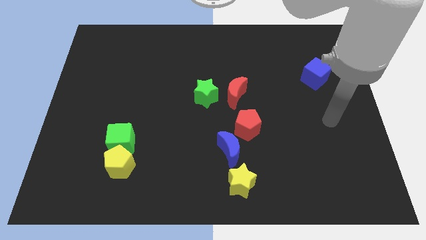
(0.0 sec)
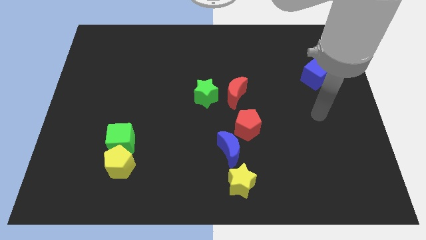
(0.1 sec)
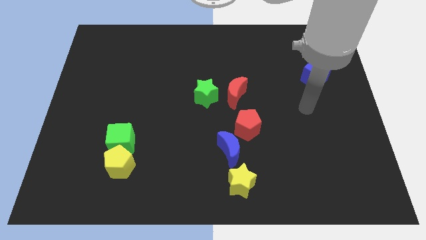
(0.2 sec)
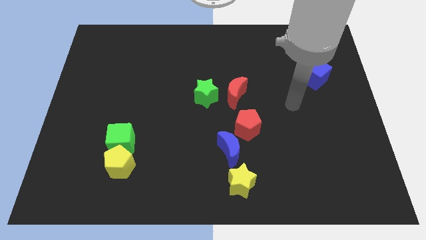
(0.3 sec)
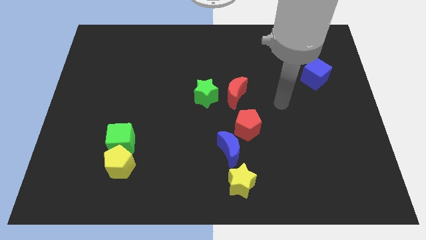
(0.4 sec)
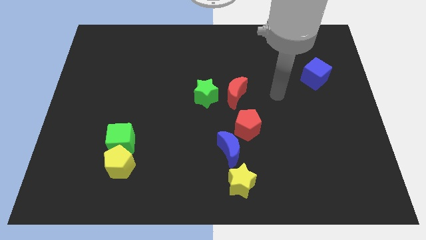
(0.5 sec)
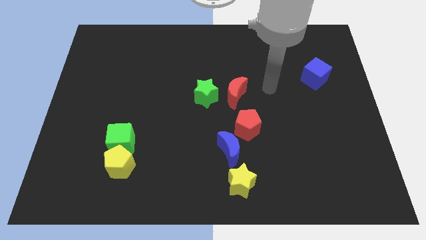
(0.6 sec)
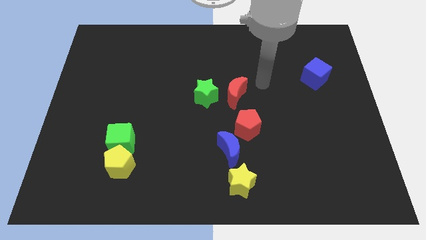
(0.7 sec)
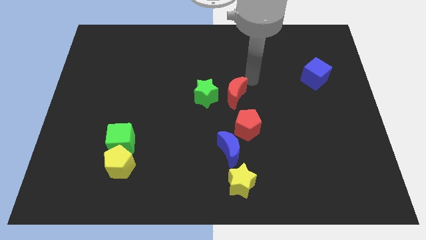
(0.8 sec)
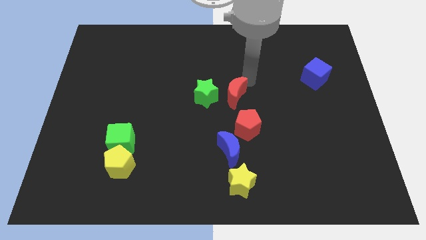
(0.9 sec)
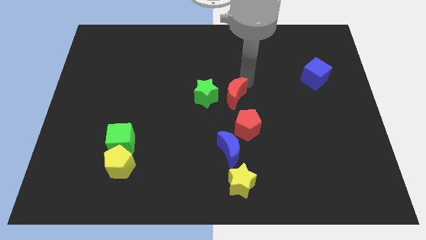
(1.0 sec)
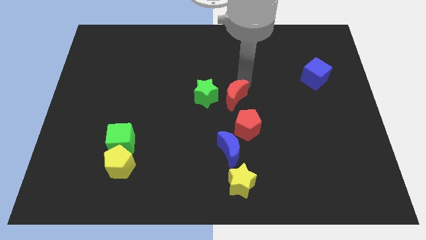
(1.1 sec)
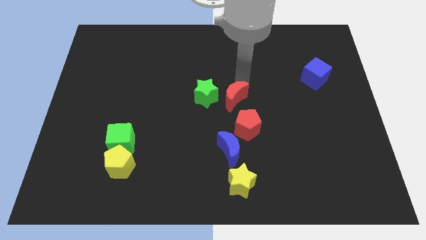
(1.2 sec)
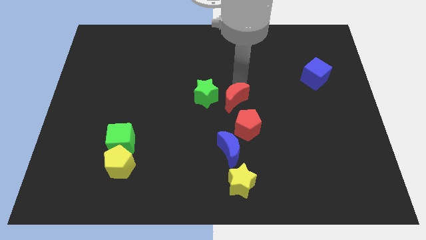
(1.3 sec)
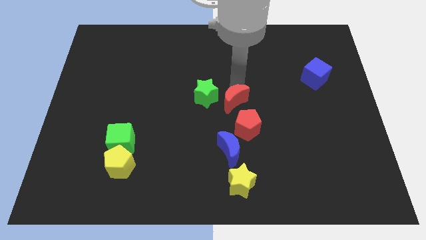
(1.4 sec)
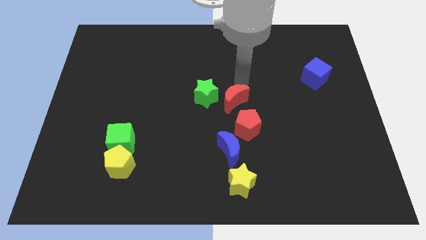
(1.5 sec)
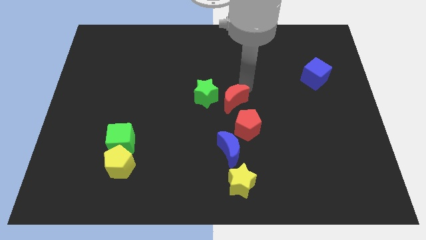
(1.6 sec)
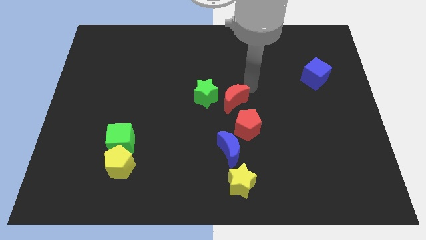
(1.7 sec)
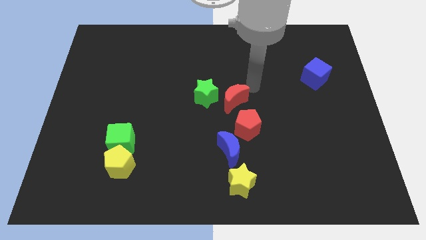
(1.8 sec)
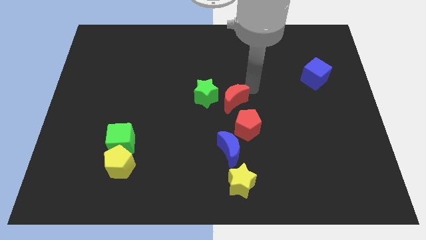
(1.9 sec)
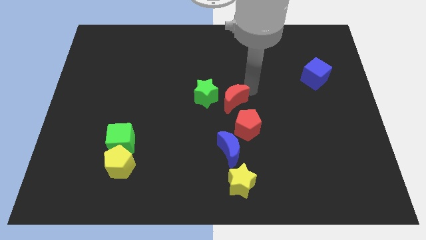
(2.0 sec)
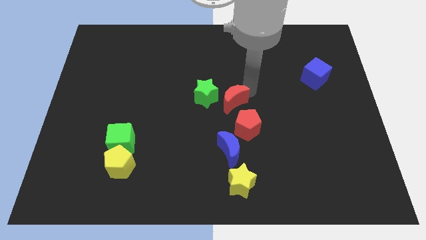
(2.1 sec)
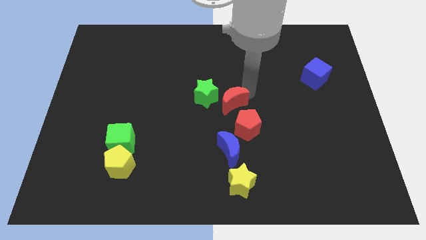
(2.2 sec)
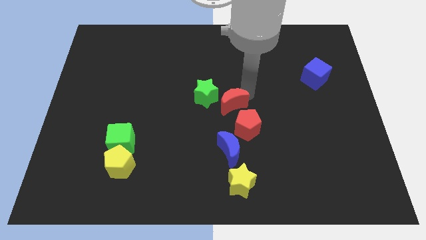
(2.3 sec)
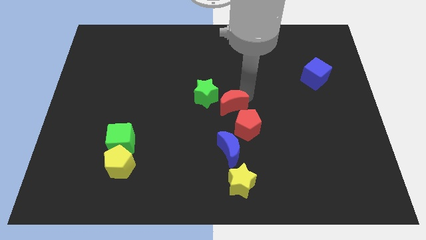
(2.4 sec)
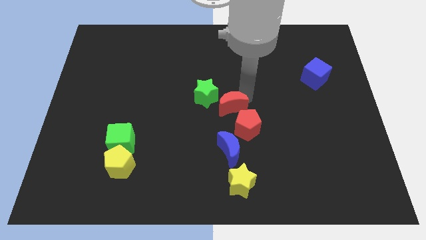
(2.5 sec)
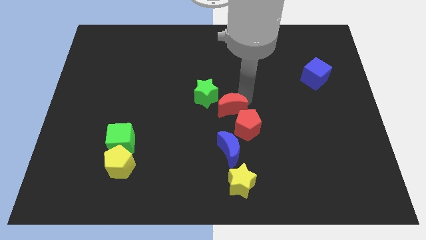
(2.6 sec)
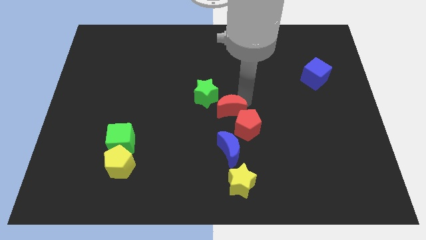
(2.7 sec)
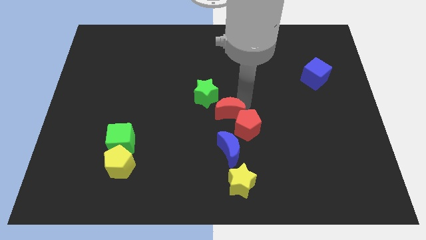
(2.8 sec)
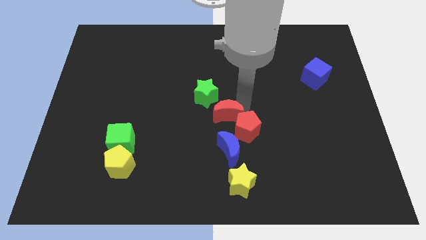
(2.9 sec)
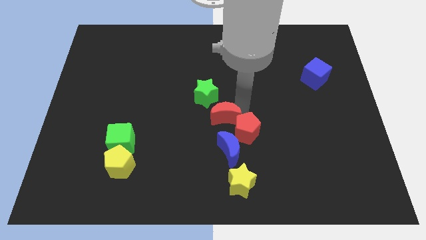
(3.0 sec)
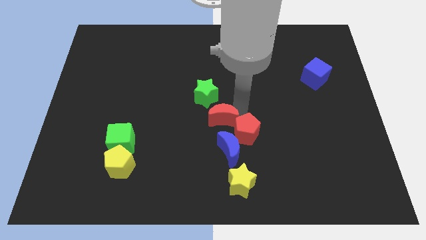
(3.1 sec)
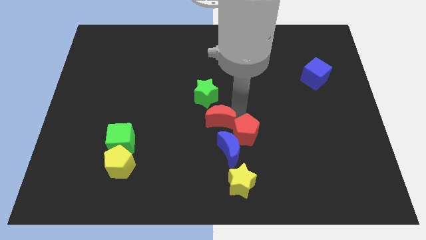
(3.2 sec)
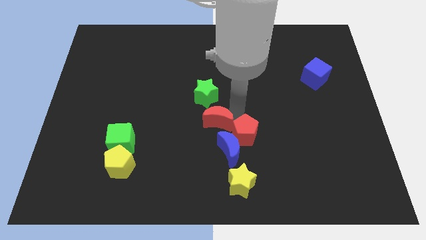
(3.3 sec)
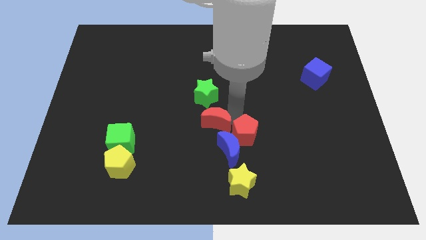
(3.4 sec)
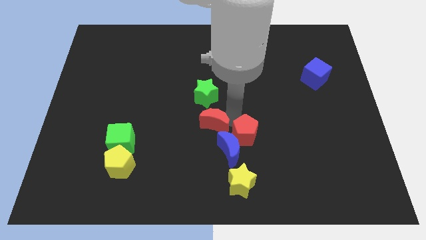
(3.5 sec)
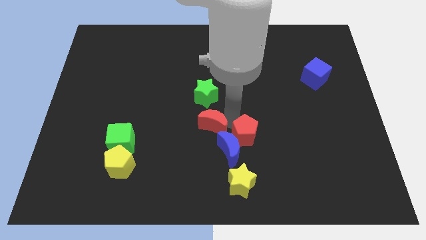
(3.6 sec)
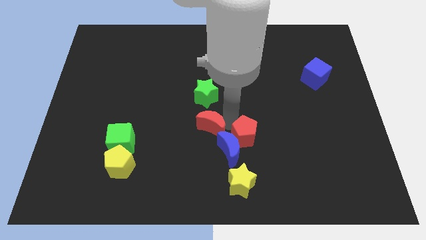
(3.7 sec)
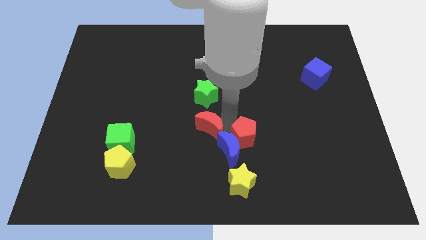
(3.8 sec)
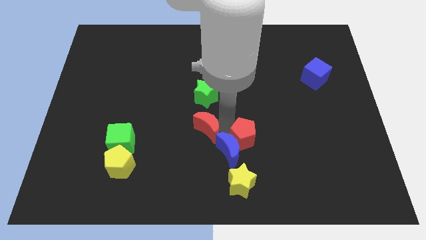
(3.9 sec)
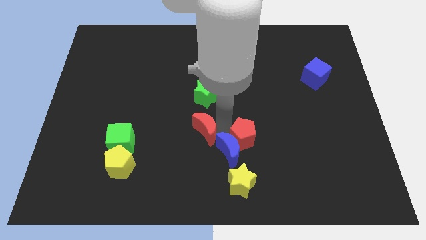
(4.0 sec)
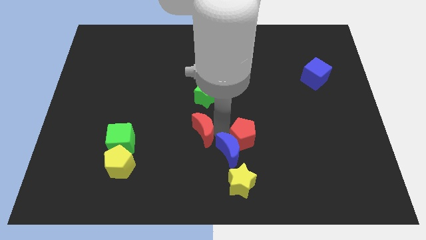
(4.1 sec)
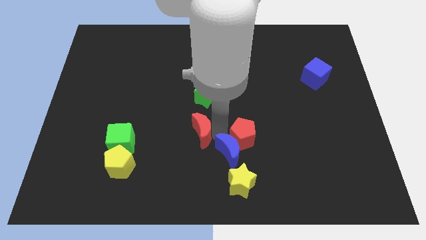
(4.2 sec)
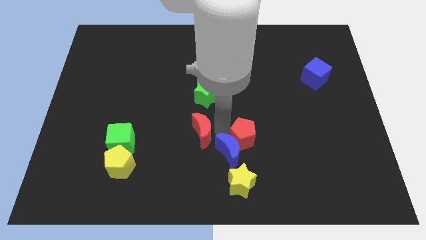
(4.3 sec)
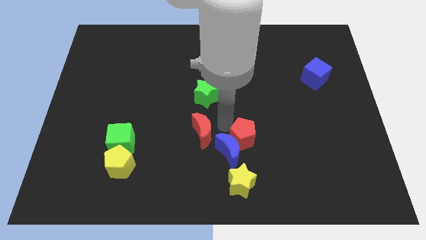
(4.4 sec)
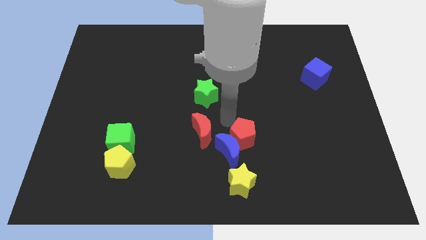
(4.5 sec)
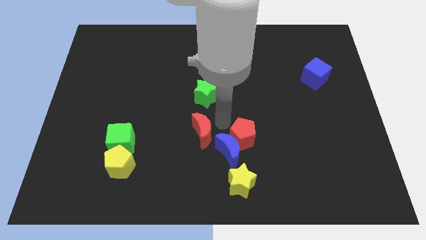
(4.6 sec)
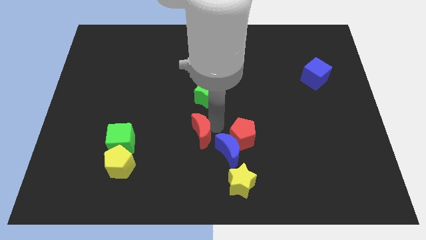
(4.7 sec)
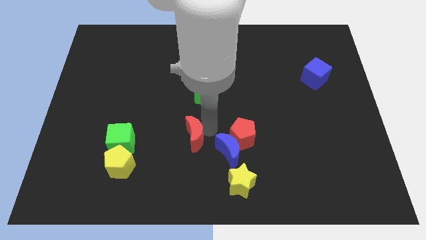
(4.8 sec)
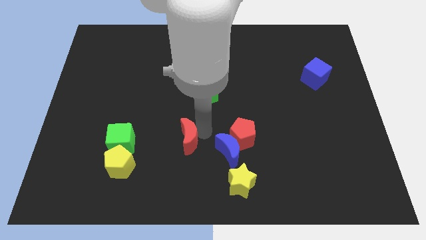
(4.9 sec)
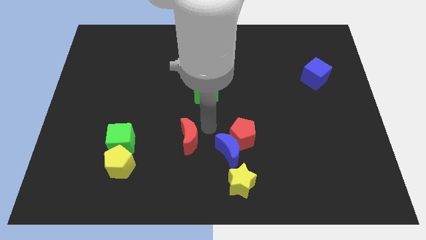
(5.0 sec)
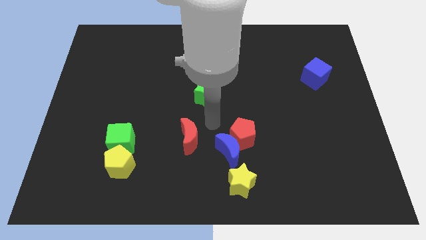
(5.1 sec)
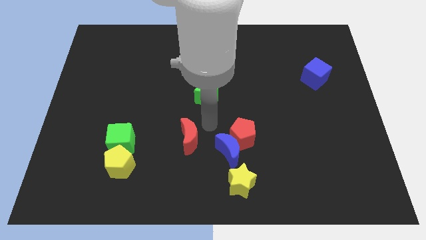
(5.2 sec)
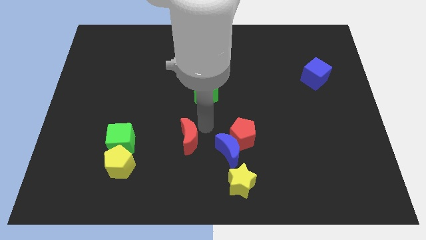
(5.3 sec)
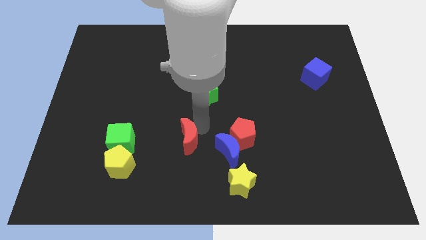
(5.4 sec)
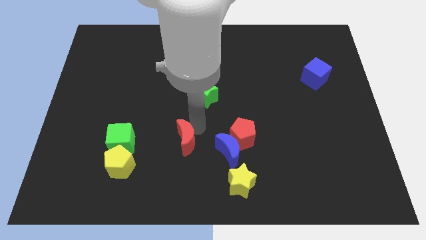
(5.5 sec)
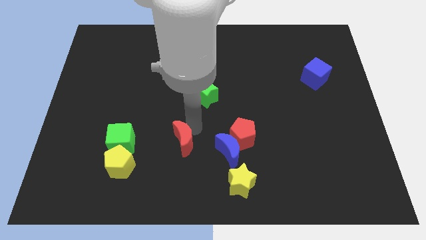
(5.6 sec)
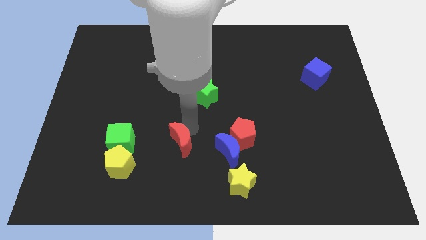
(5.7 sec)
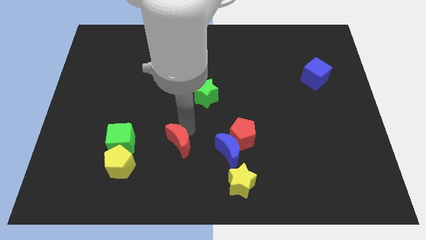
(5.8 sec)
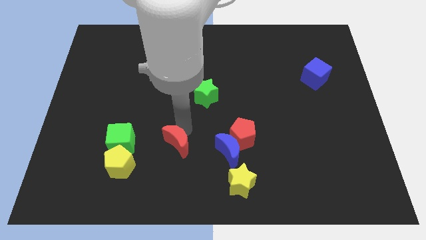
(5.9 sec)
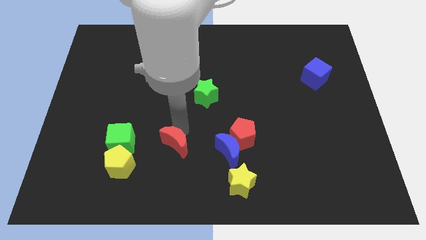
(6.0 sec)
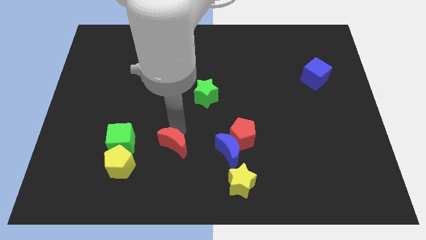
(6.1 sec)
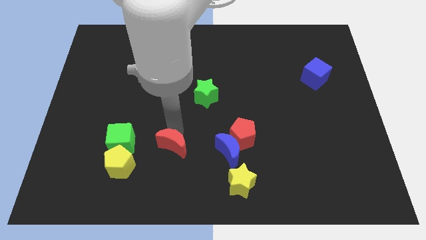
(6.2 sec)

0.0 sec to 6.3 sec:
slide the red moon down and then to the left

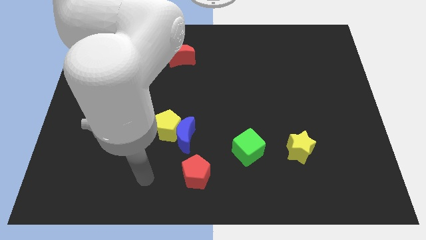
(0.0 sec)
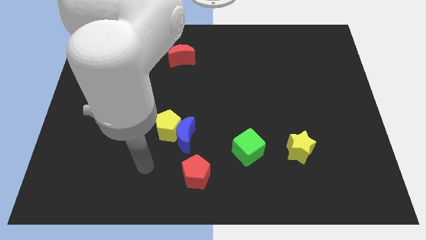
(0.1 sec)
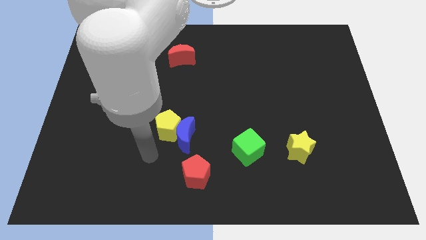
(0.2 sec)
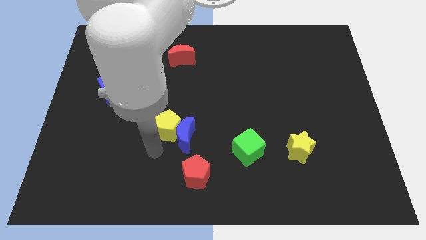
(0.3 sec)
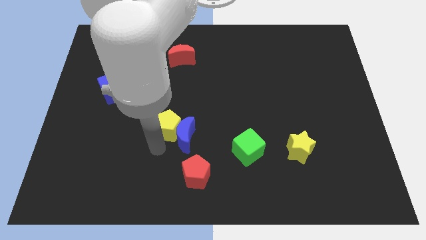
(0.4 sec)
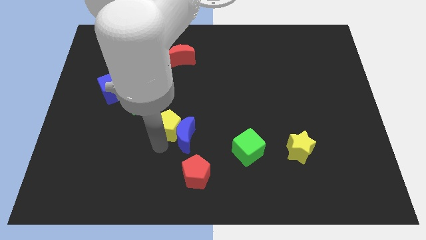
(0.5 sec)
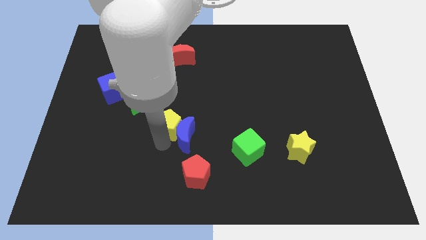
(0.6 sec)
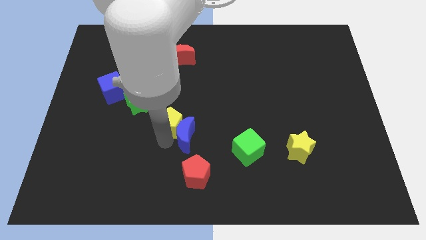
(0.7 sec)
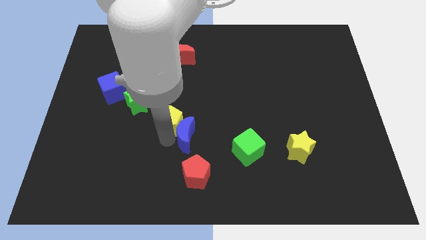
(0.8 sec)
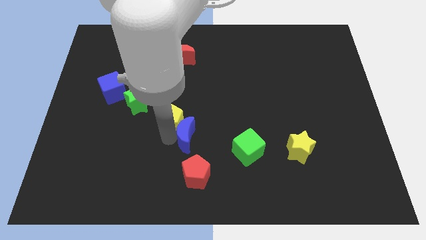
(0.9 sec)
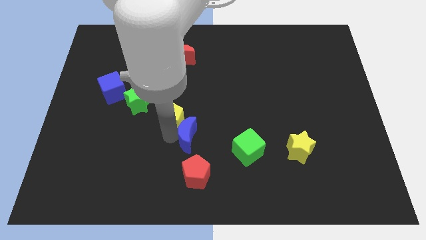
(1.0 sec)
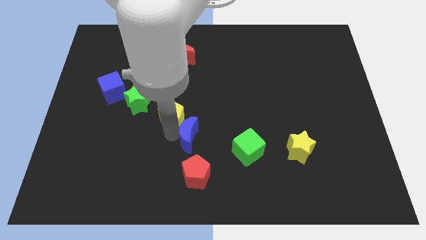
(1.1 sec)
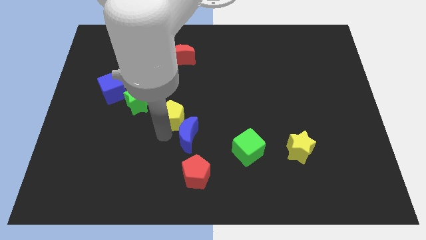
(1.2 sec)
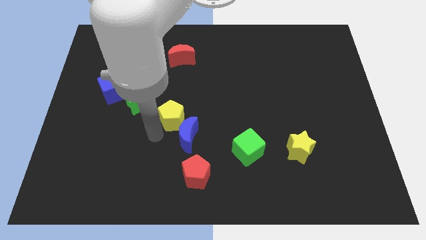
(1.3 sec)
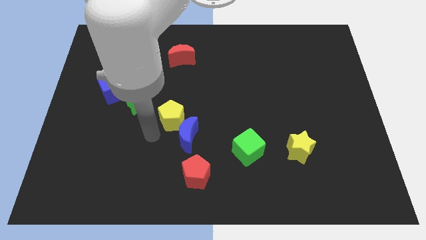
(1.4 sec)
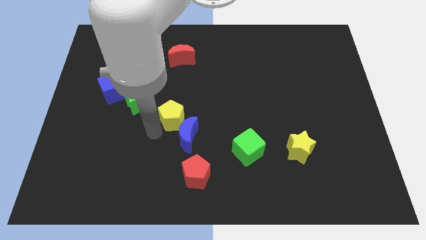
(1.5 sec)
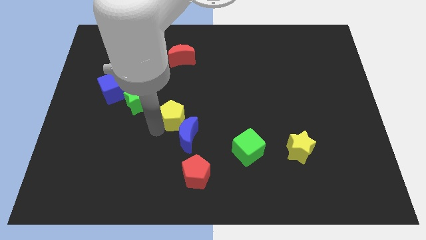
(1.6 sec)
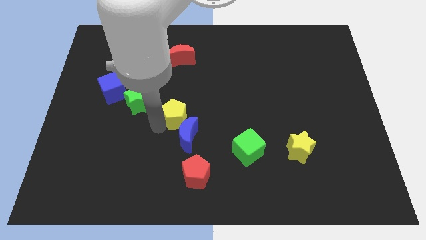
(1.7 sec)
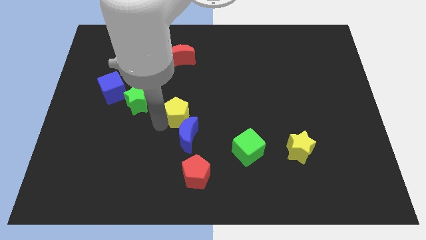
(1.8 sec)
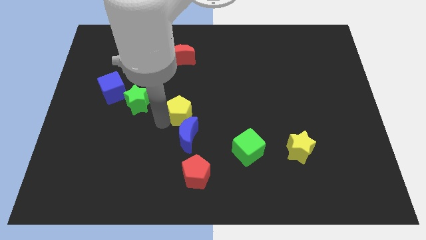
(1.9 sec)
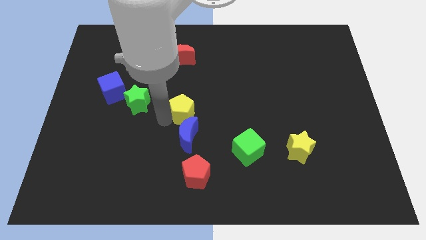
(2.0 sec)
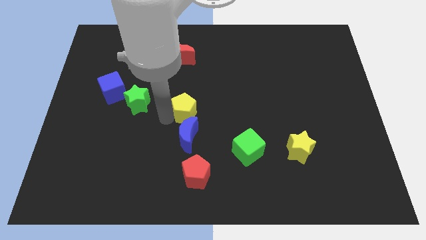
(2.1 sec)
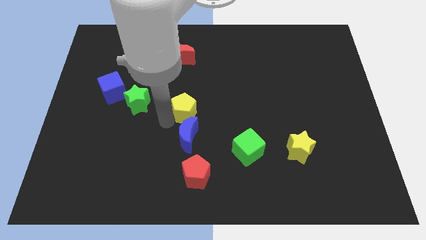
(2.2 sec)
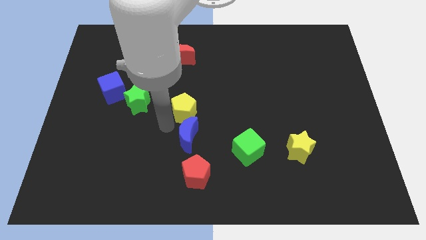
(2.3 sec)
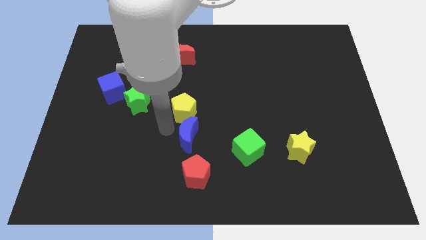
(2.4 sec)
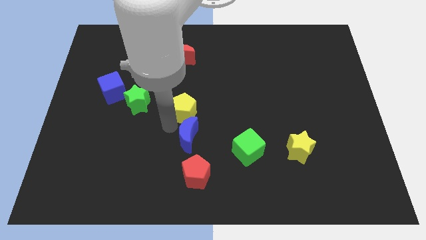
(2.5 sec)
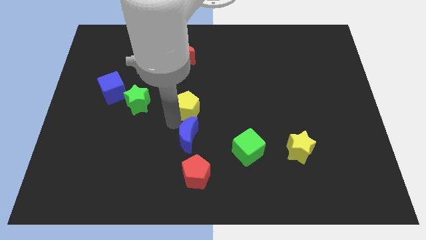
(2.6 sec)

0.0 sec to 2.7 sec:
move the yellow pentagon up and right diagonally a little bit
